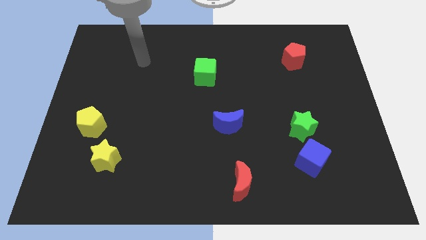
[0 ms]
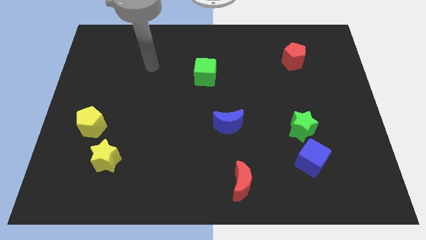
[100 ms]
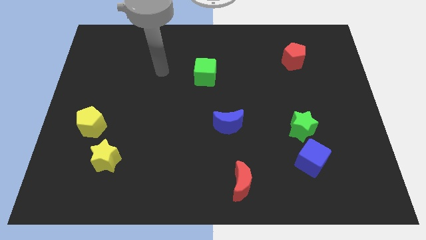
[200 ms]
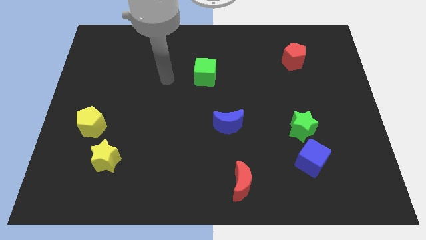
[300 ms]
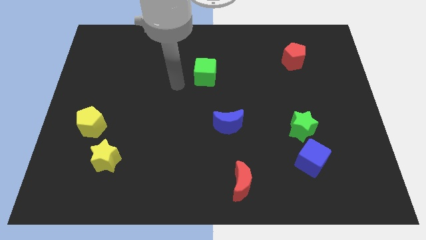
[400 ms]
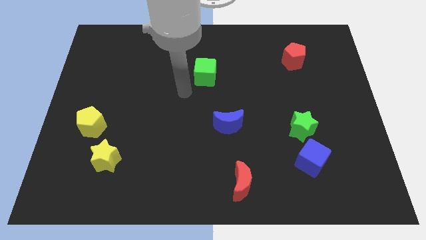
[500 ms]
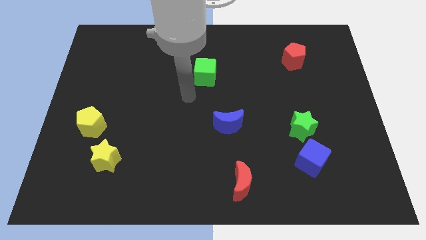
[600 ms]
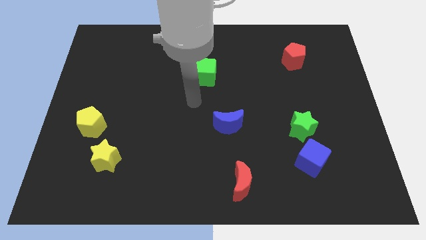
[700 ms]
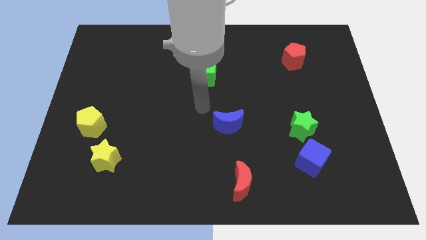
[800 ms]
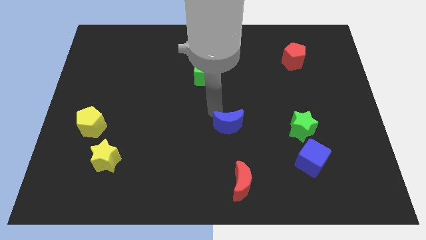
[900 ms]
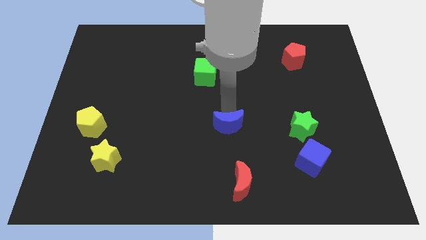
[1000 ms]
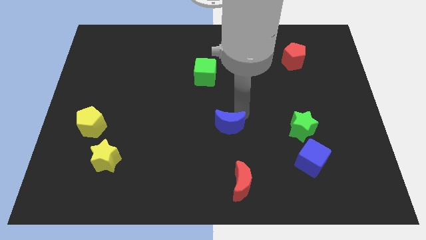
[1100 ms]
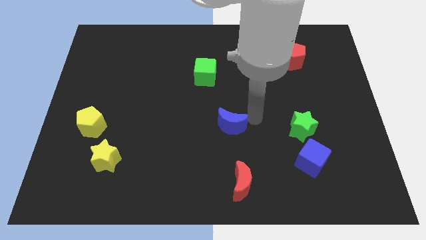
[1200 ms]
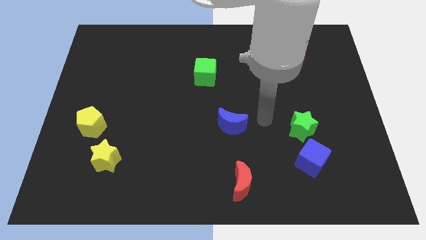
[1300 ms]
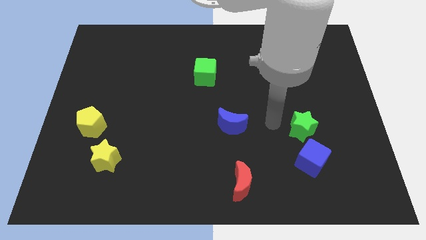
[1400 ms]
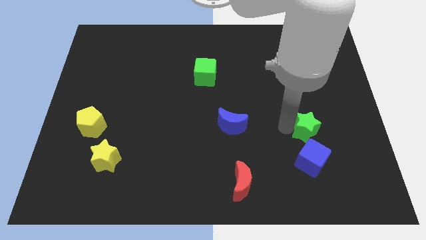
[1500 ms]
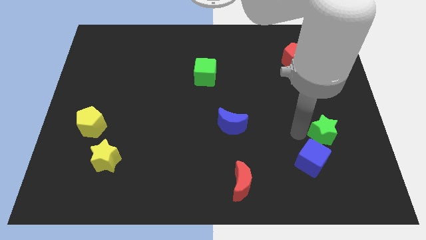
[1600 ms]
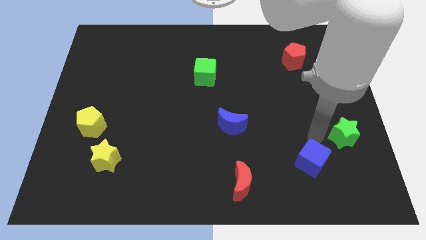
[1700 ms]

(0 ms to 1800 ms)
separate the blue cube from the green star

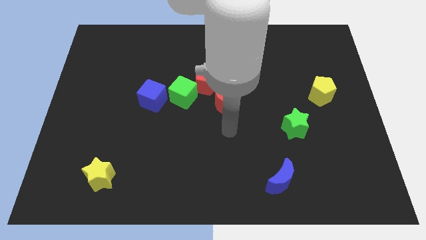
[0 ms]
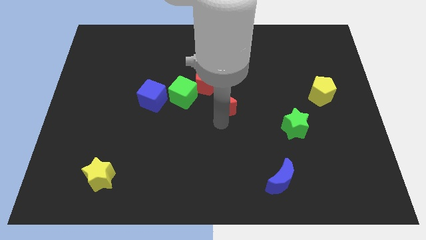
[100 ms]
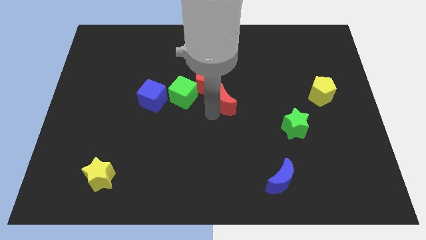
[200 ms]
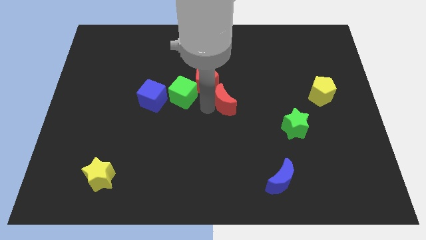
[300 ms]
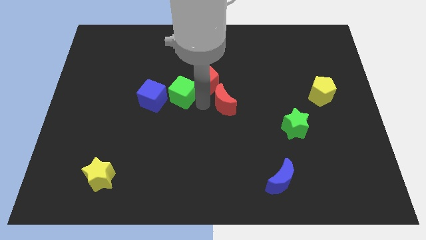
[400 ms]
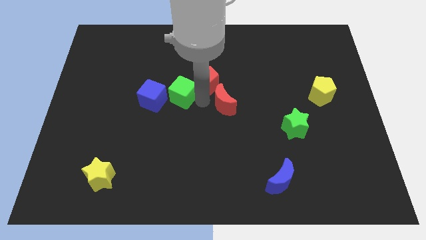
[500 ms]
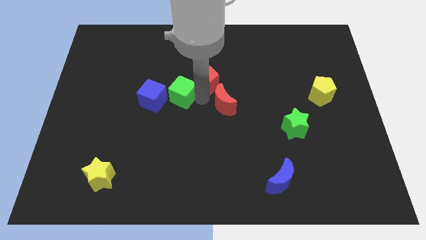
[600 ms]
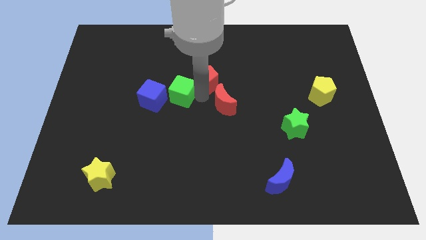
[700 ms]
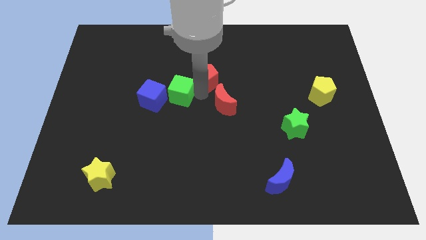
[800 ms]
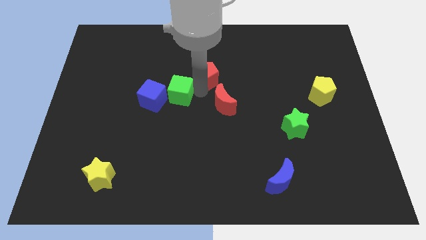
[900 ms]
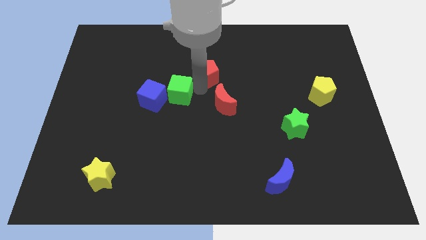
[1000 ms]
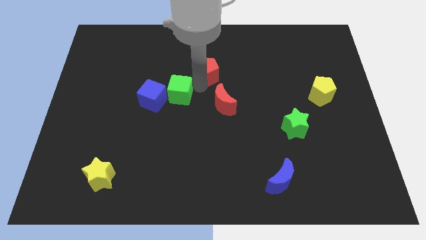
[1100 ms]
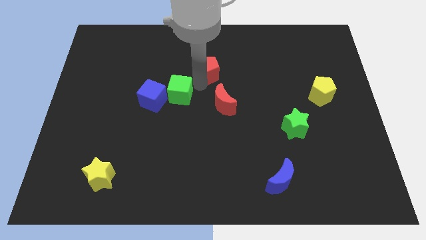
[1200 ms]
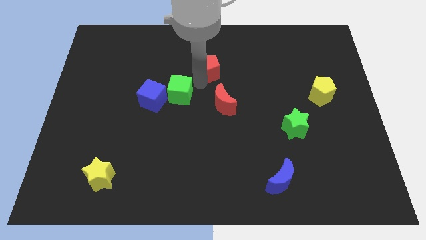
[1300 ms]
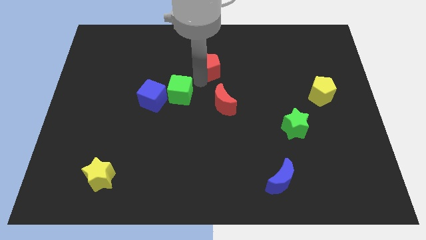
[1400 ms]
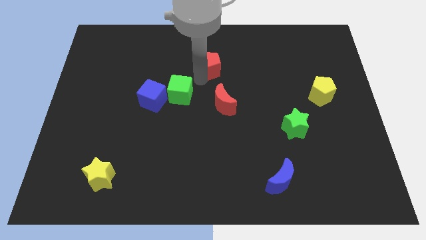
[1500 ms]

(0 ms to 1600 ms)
move the red pentagon away from the green cube and red moon

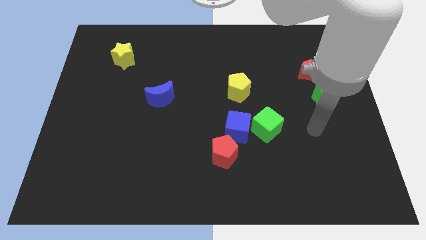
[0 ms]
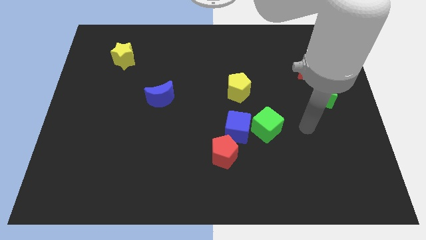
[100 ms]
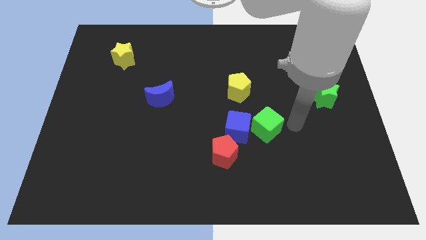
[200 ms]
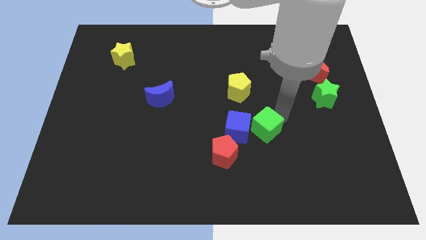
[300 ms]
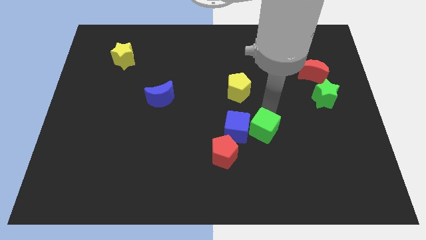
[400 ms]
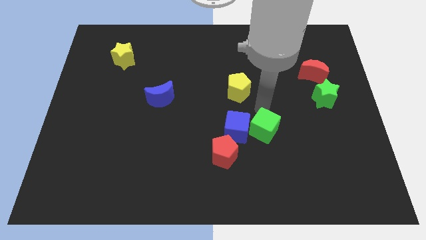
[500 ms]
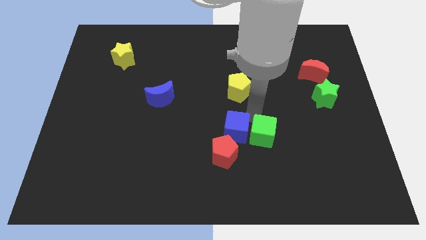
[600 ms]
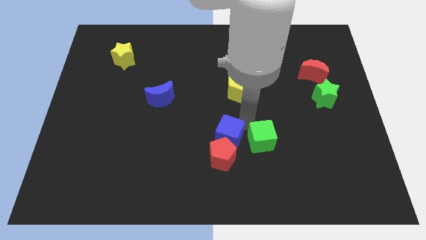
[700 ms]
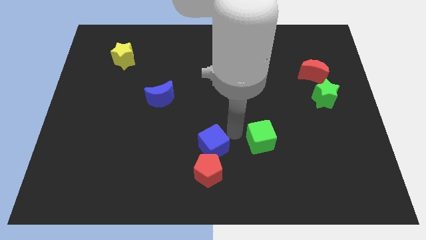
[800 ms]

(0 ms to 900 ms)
separate the green cube from the blue cube

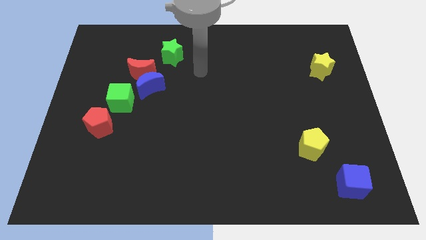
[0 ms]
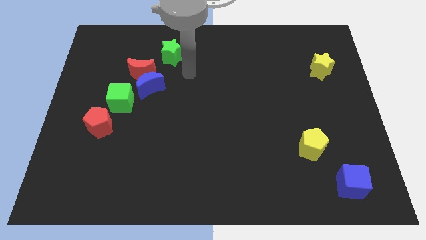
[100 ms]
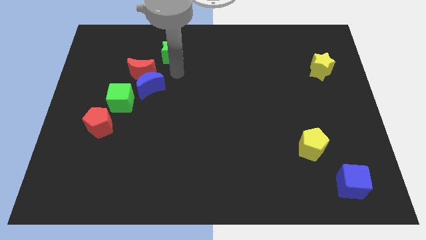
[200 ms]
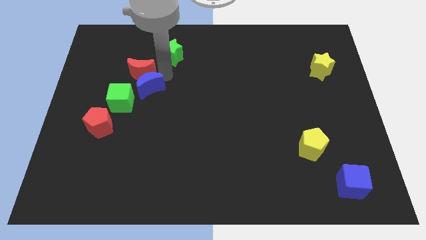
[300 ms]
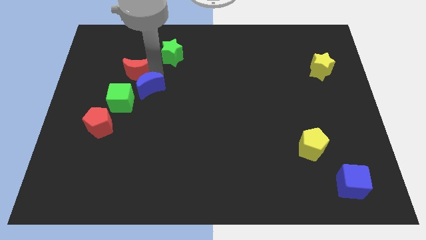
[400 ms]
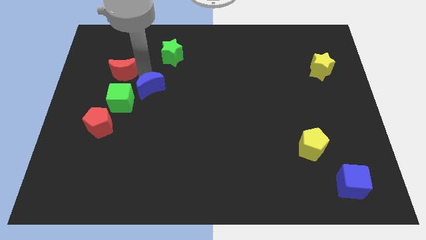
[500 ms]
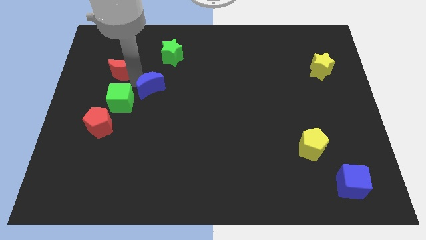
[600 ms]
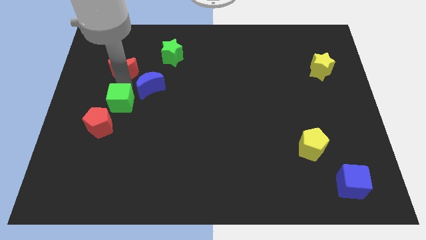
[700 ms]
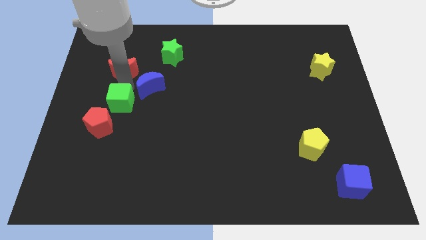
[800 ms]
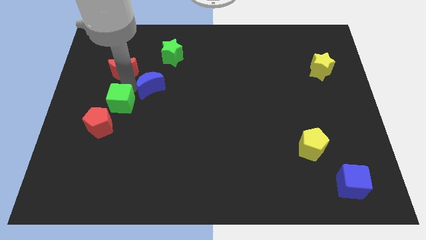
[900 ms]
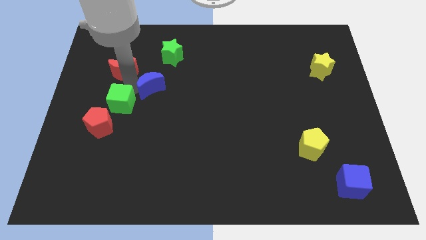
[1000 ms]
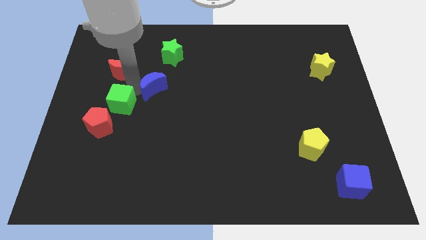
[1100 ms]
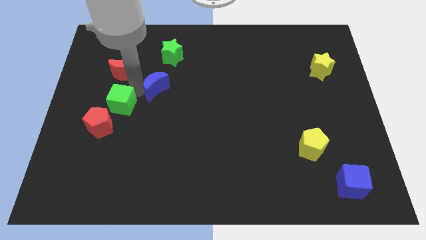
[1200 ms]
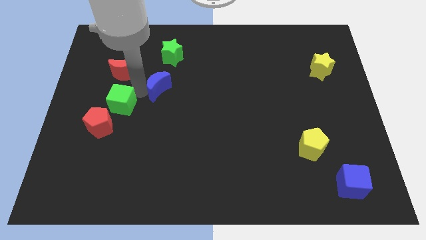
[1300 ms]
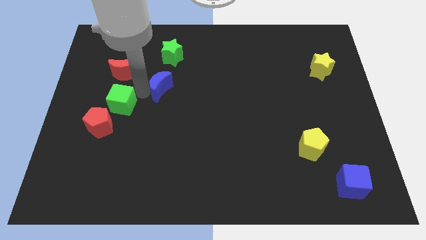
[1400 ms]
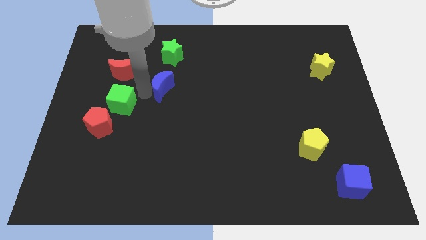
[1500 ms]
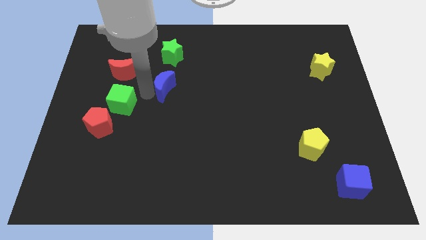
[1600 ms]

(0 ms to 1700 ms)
move the blue moon away from the red moon and green cube

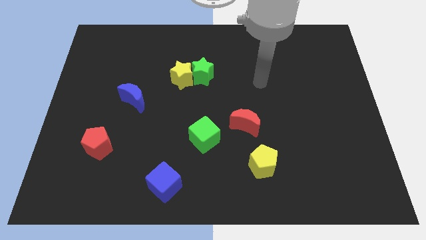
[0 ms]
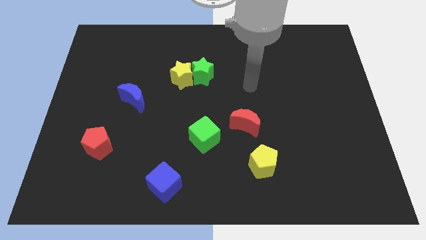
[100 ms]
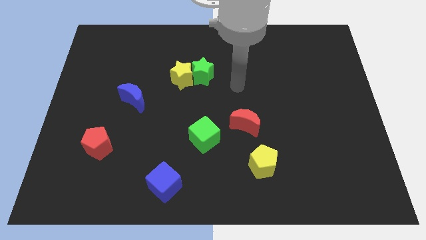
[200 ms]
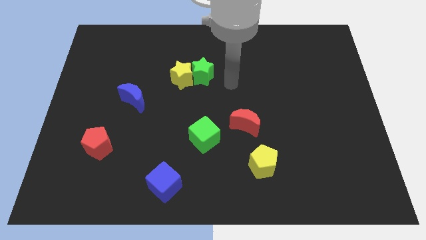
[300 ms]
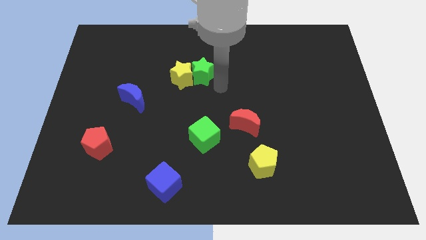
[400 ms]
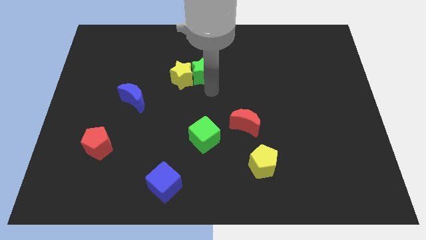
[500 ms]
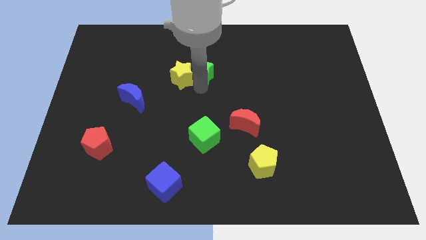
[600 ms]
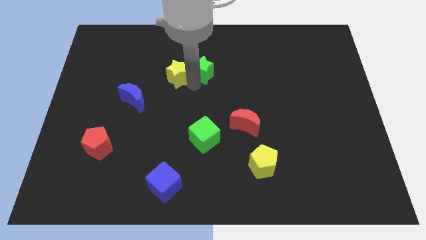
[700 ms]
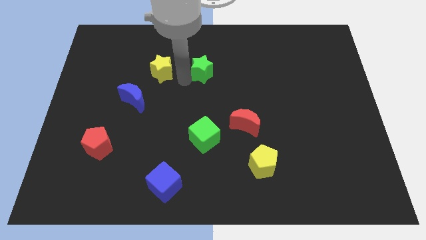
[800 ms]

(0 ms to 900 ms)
separate the green star from the yellow star

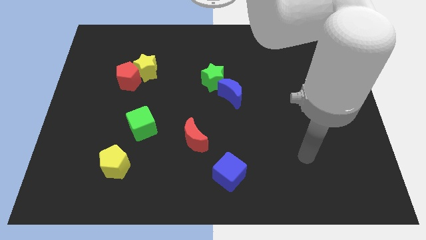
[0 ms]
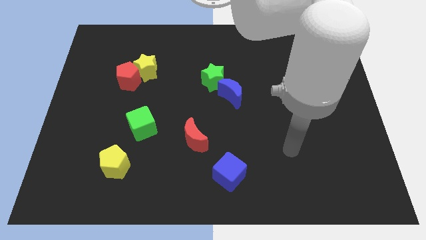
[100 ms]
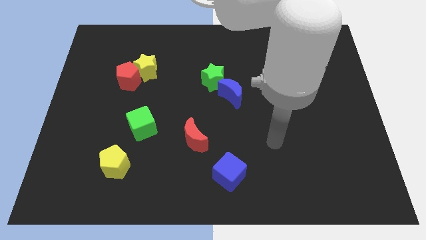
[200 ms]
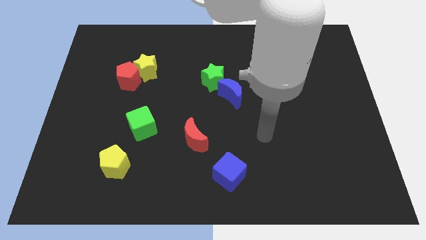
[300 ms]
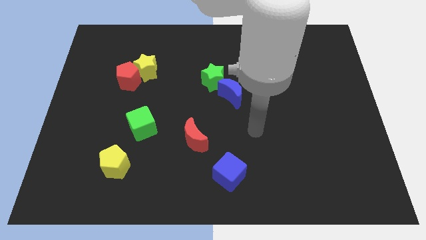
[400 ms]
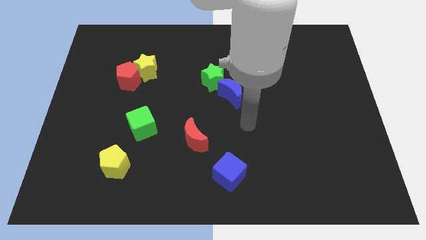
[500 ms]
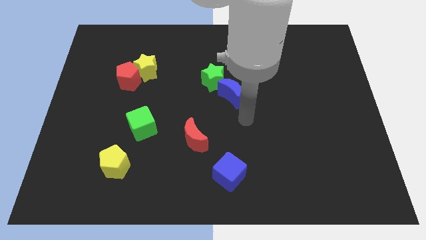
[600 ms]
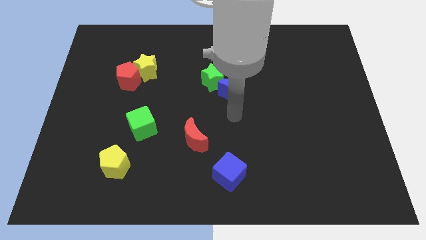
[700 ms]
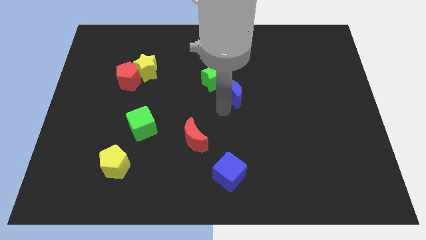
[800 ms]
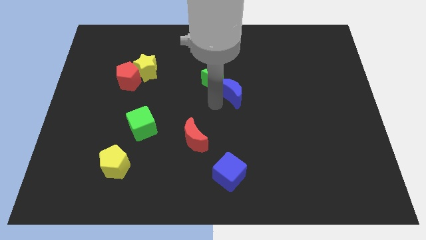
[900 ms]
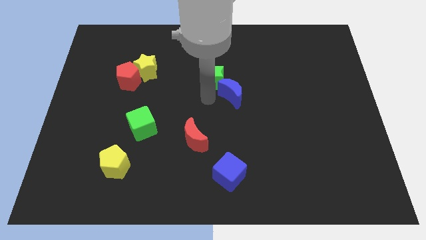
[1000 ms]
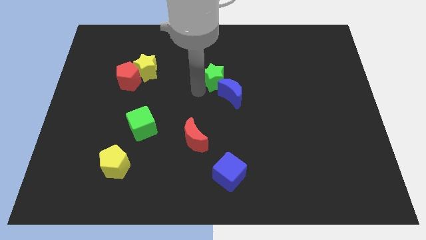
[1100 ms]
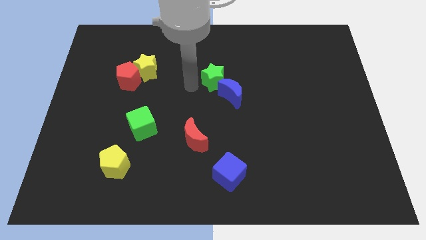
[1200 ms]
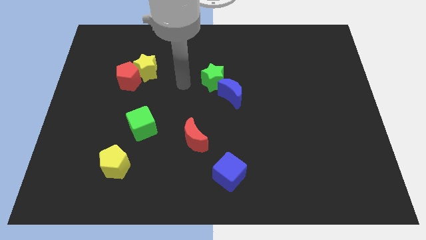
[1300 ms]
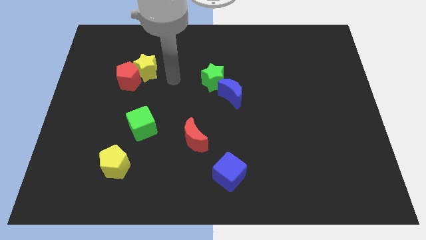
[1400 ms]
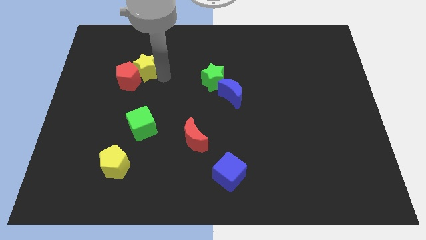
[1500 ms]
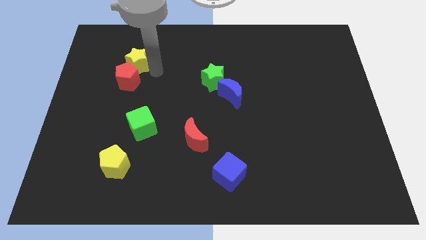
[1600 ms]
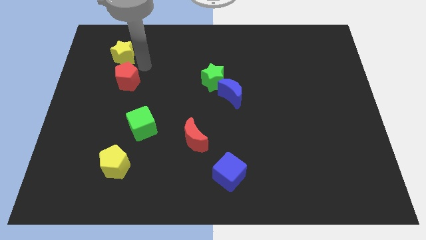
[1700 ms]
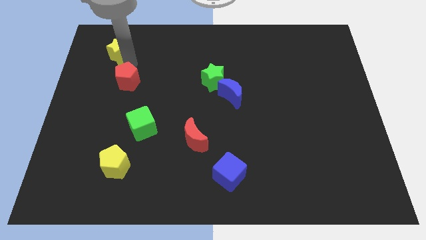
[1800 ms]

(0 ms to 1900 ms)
separate the red pentagon from the yellow star

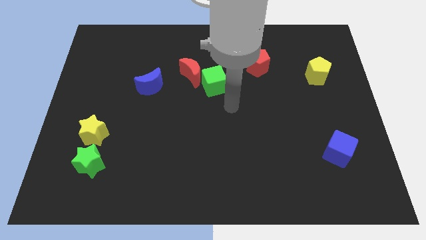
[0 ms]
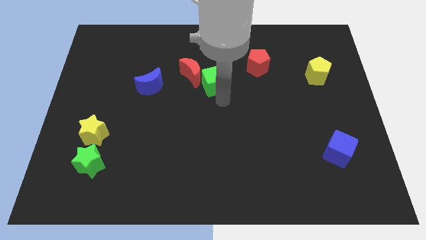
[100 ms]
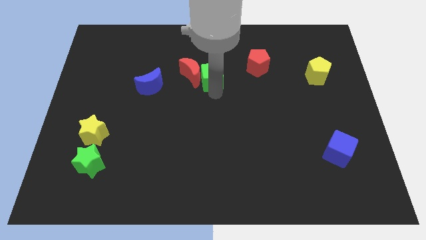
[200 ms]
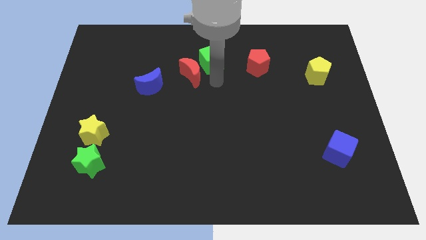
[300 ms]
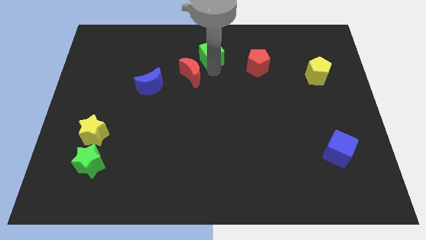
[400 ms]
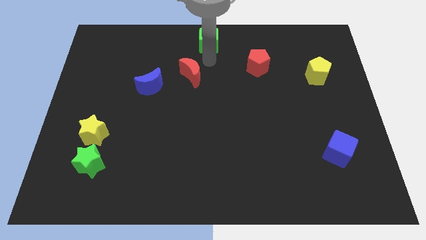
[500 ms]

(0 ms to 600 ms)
separate the red moon from the green cube

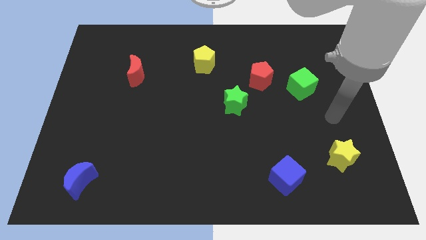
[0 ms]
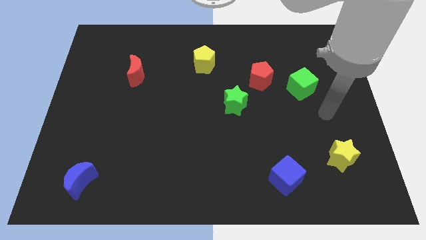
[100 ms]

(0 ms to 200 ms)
separate the red pentagon from the green cube
